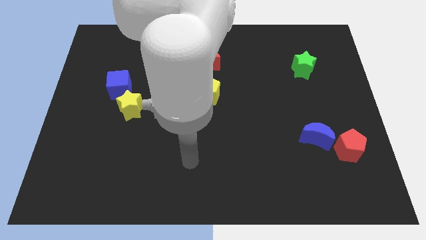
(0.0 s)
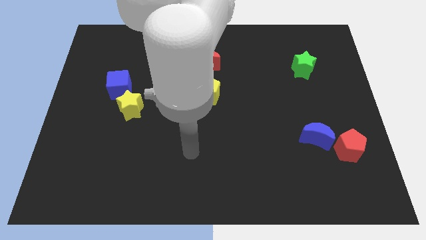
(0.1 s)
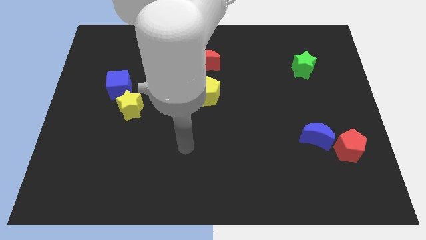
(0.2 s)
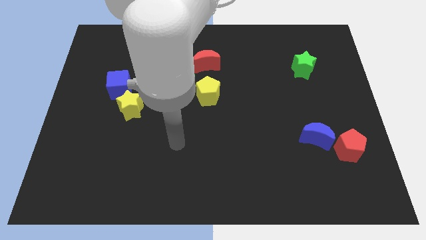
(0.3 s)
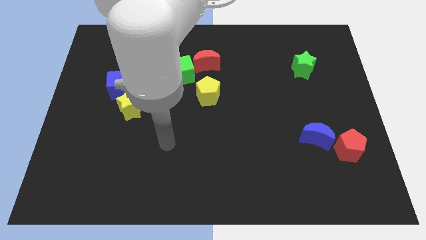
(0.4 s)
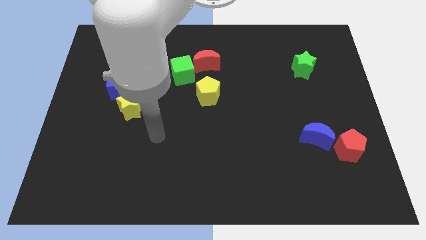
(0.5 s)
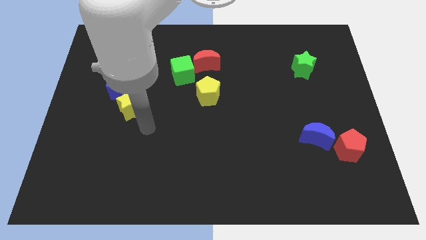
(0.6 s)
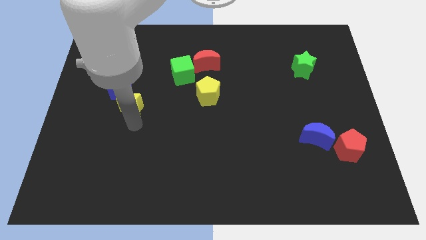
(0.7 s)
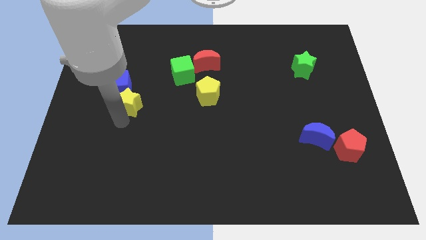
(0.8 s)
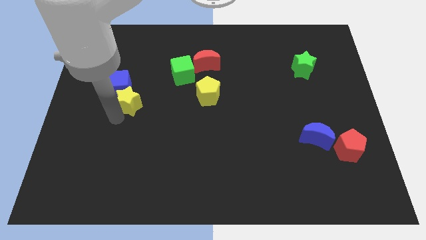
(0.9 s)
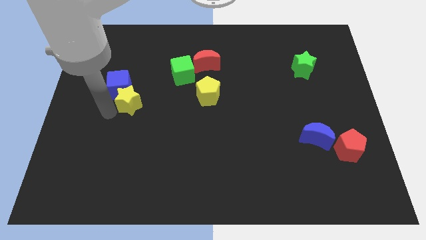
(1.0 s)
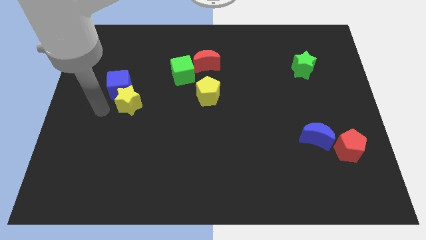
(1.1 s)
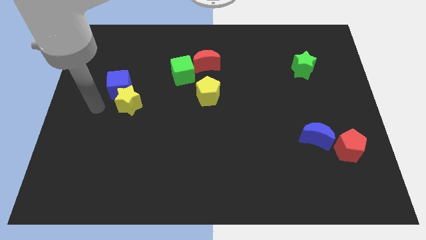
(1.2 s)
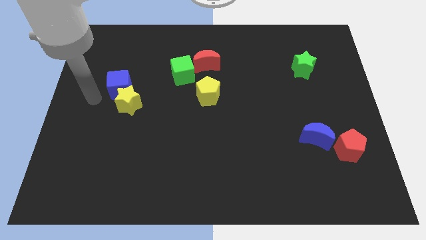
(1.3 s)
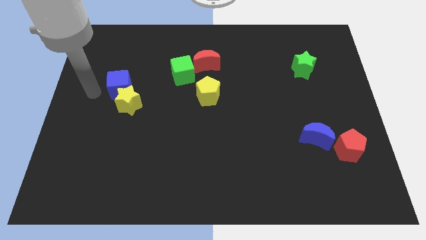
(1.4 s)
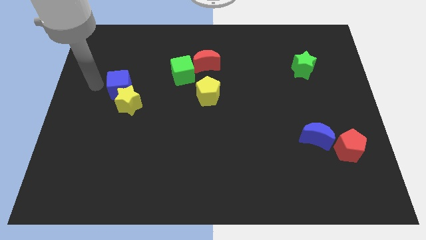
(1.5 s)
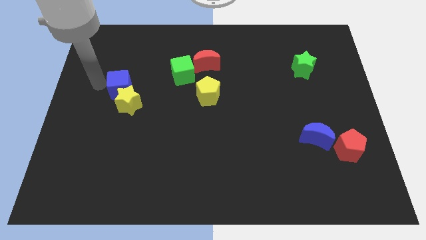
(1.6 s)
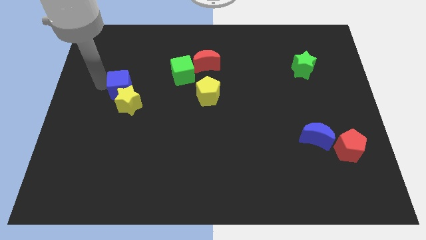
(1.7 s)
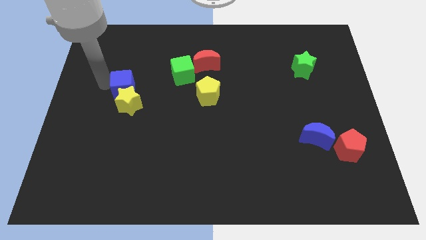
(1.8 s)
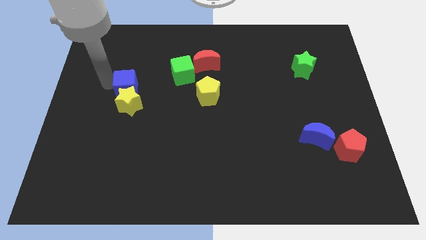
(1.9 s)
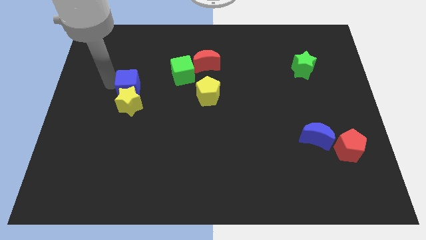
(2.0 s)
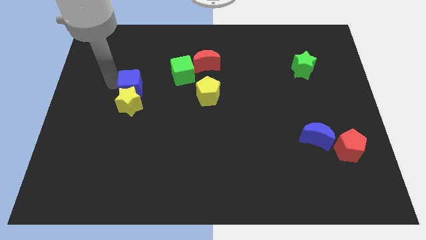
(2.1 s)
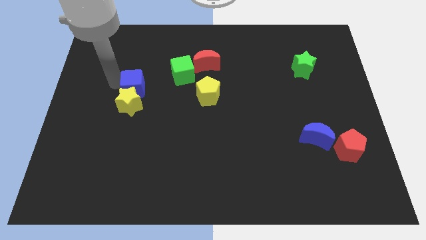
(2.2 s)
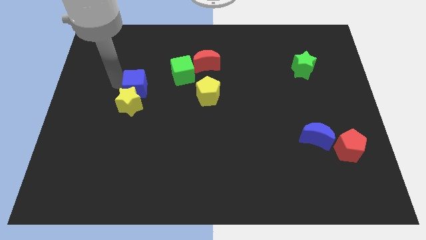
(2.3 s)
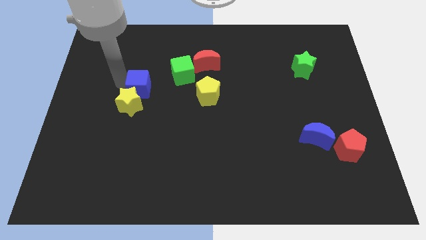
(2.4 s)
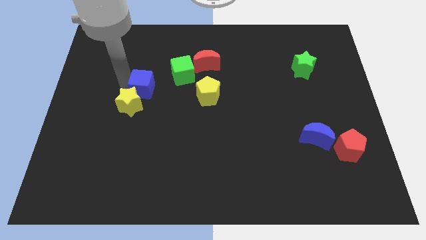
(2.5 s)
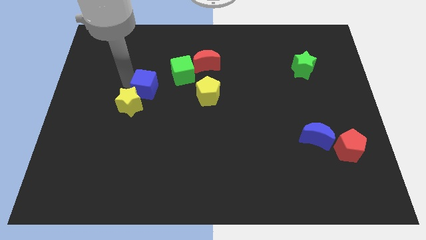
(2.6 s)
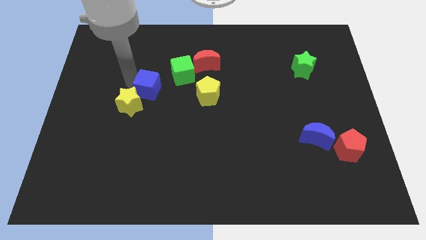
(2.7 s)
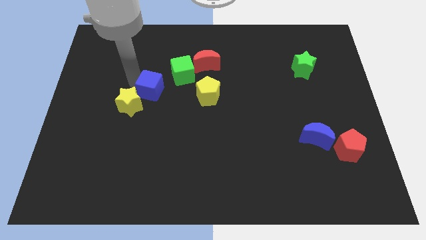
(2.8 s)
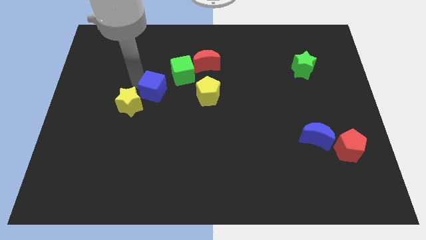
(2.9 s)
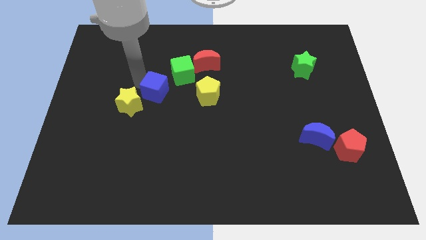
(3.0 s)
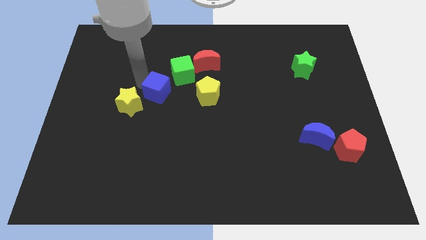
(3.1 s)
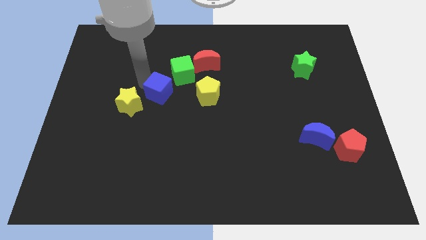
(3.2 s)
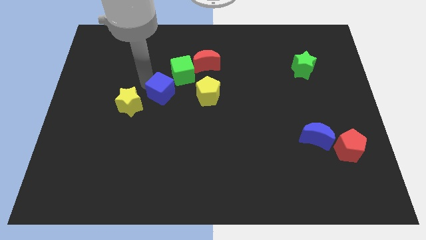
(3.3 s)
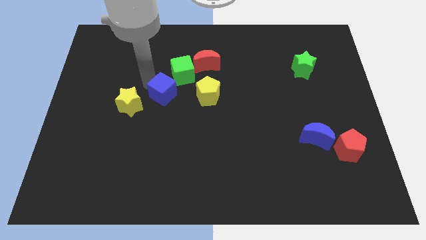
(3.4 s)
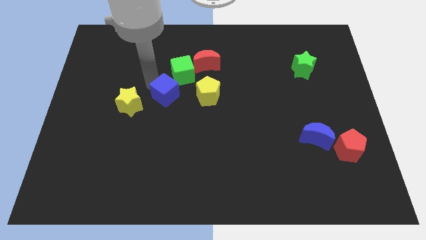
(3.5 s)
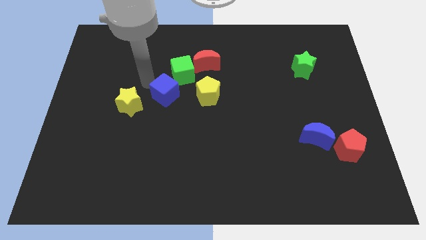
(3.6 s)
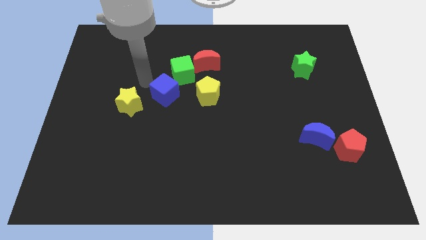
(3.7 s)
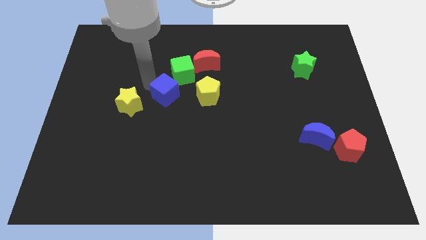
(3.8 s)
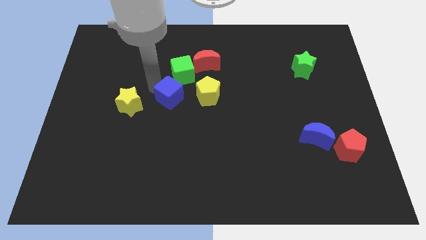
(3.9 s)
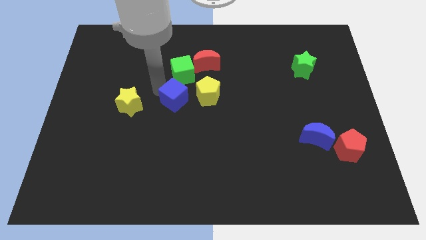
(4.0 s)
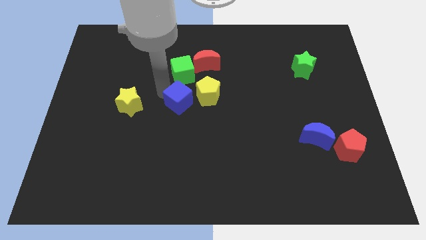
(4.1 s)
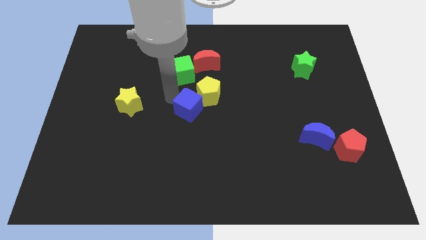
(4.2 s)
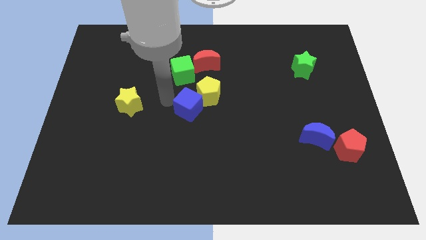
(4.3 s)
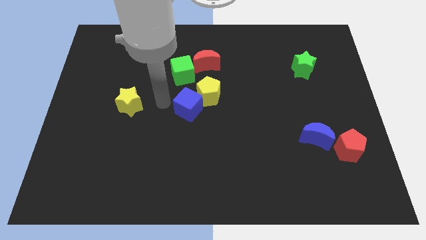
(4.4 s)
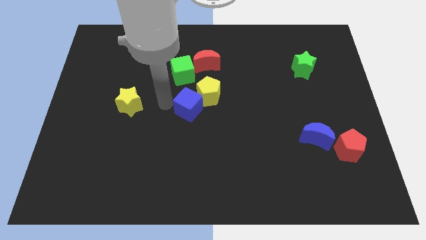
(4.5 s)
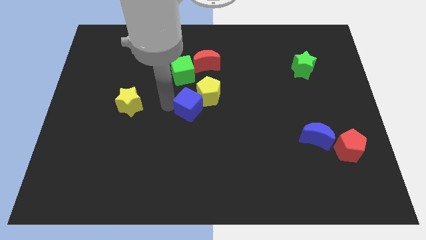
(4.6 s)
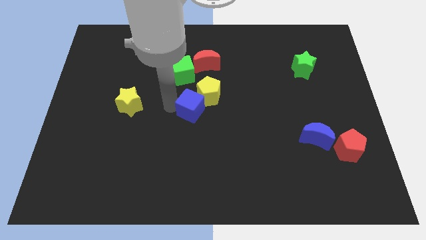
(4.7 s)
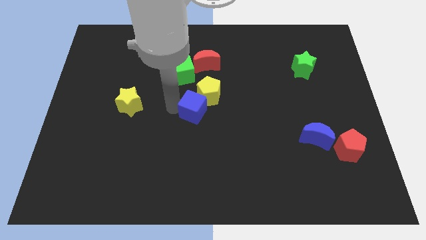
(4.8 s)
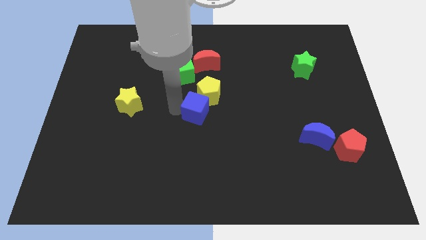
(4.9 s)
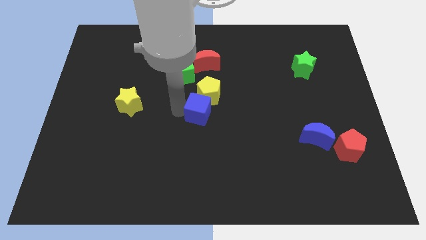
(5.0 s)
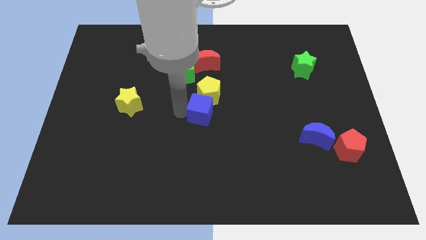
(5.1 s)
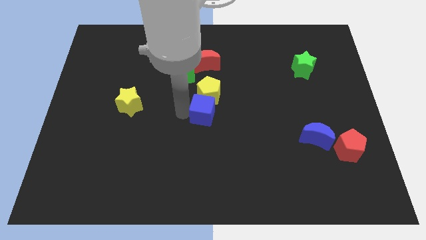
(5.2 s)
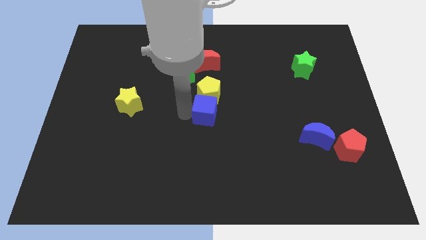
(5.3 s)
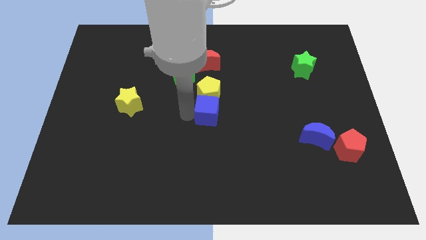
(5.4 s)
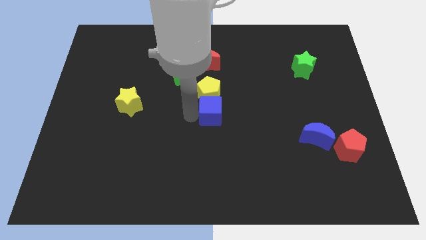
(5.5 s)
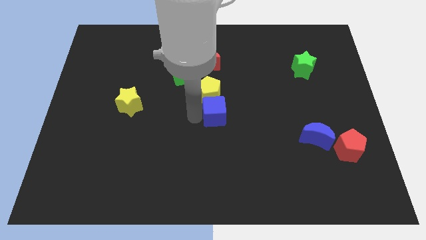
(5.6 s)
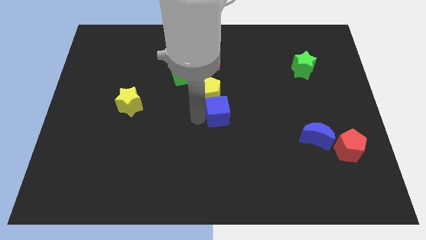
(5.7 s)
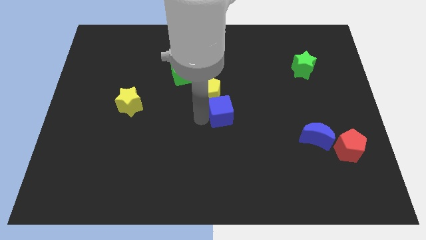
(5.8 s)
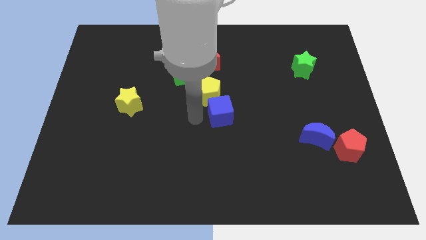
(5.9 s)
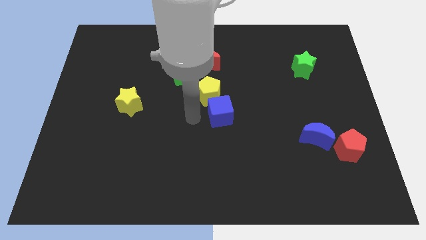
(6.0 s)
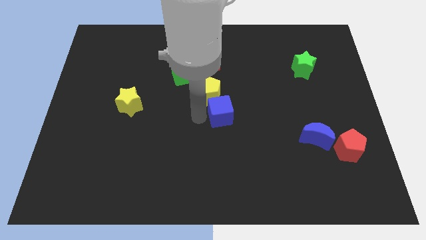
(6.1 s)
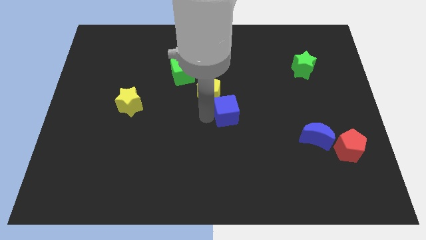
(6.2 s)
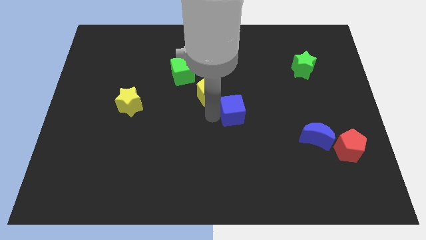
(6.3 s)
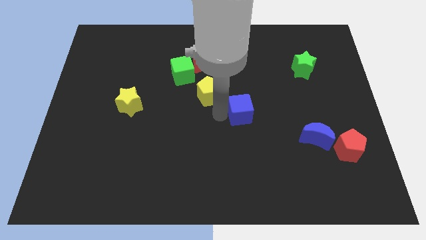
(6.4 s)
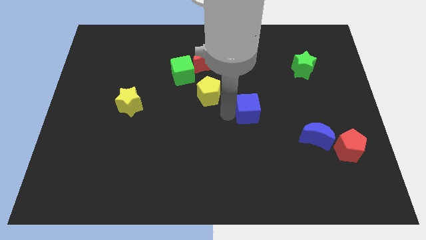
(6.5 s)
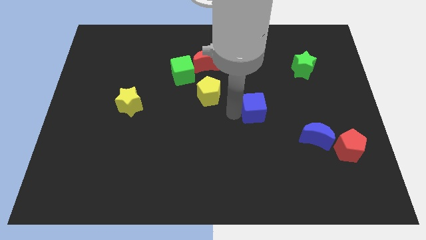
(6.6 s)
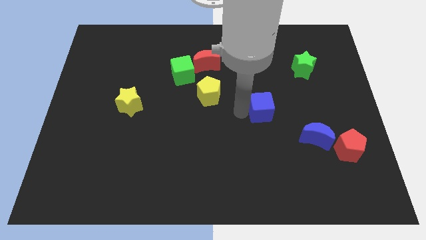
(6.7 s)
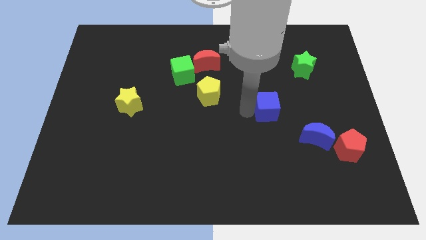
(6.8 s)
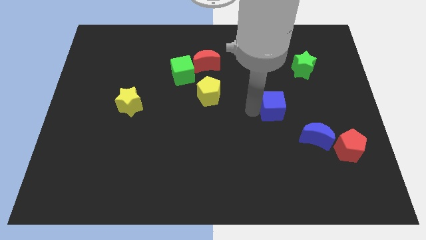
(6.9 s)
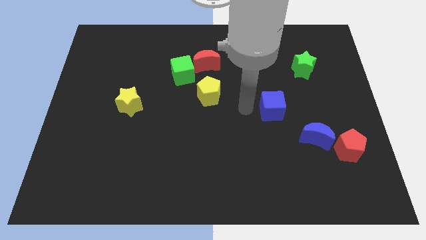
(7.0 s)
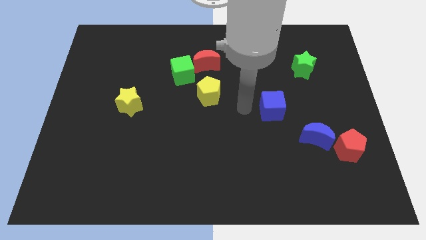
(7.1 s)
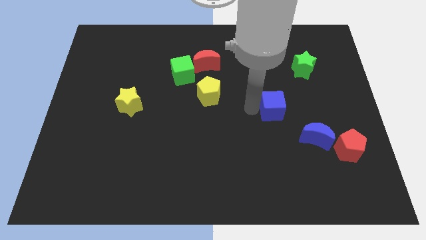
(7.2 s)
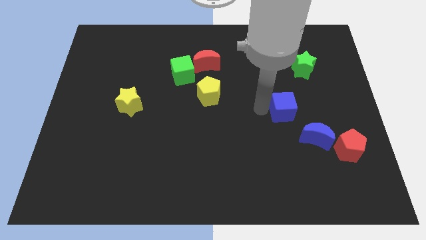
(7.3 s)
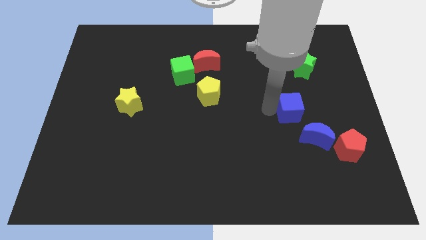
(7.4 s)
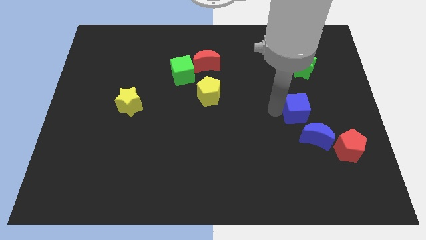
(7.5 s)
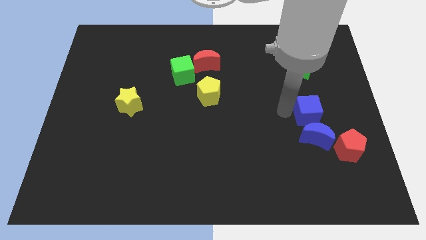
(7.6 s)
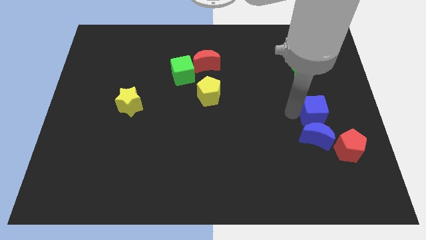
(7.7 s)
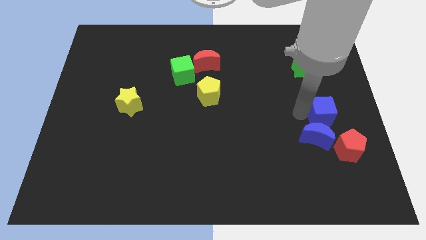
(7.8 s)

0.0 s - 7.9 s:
slide the blue cube to the top side of the red pentagon
